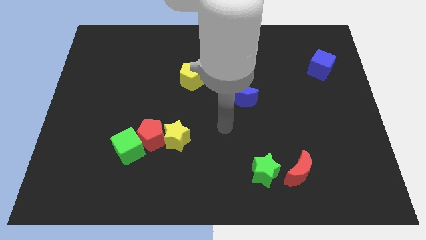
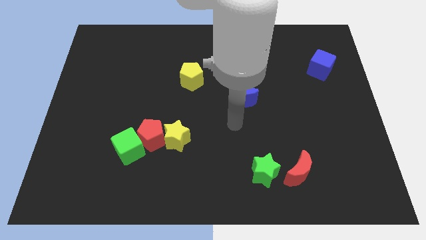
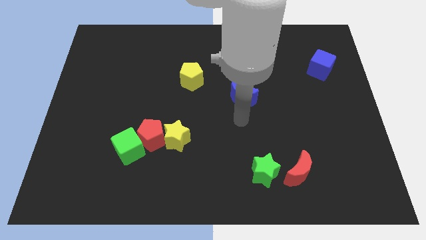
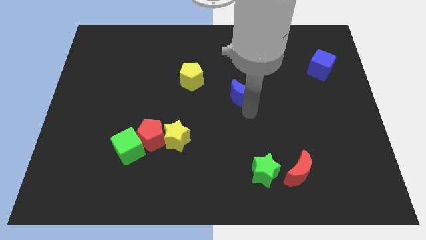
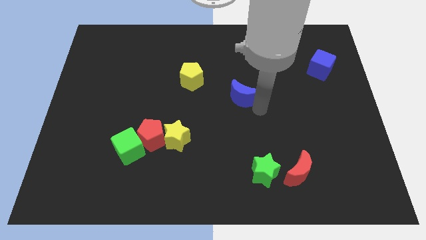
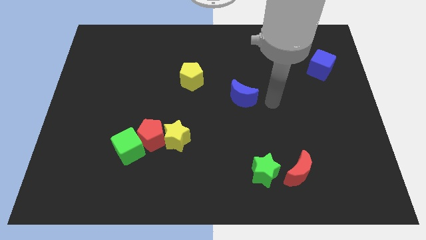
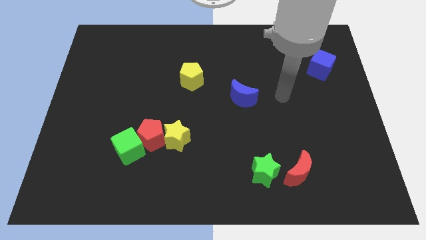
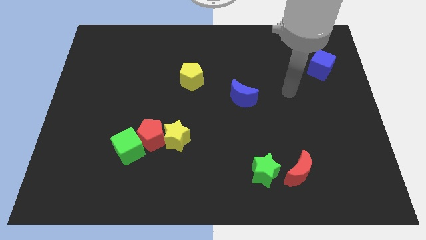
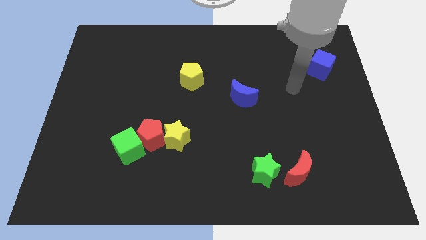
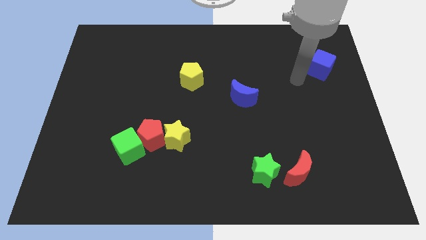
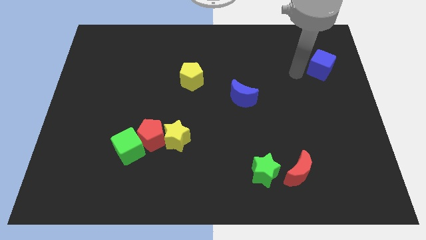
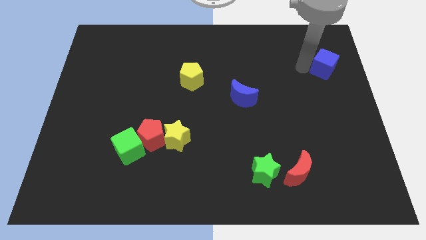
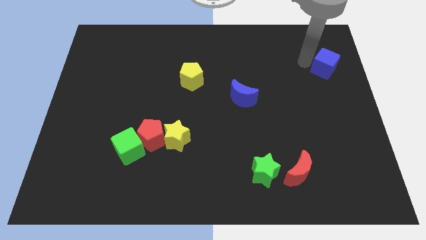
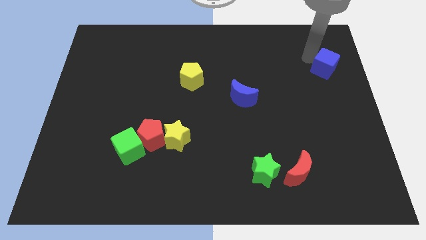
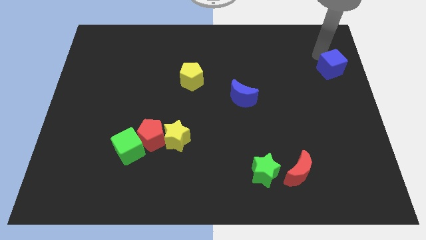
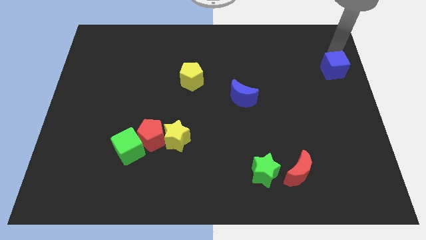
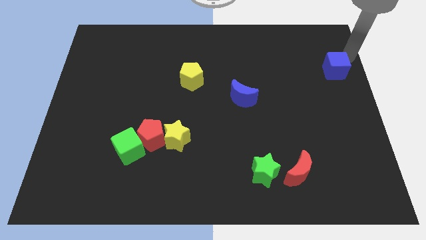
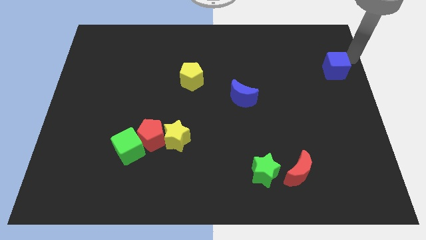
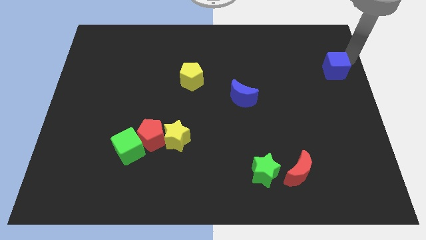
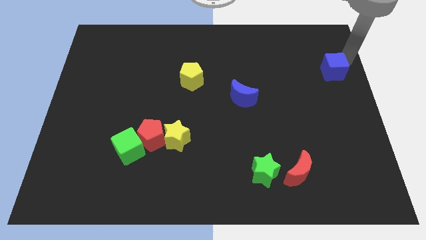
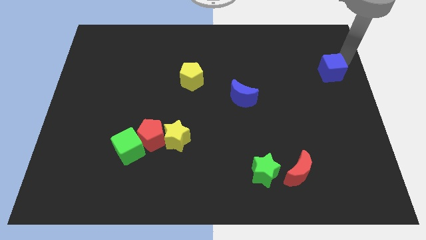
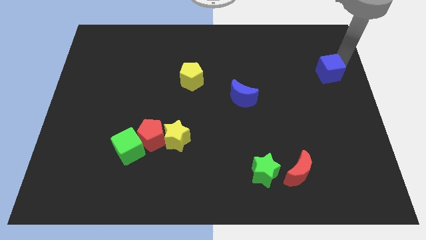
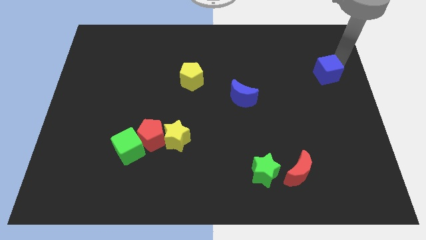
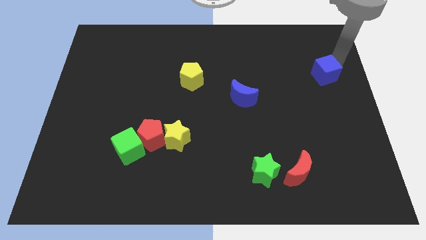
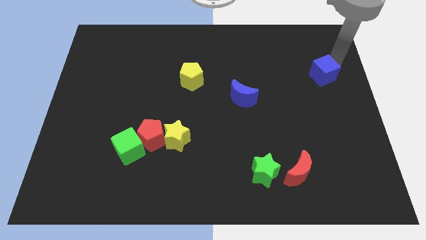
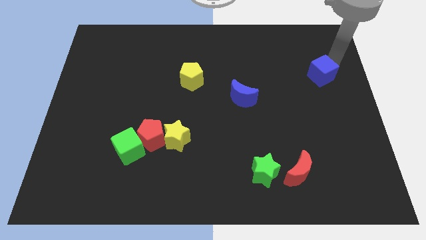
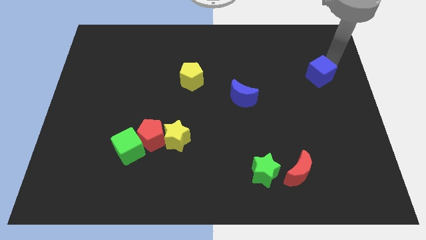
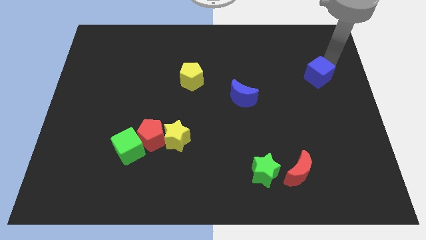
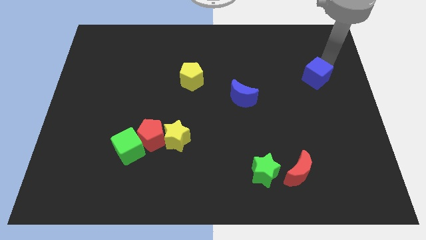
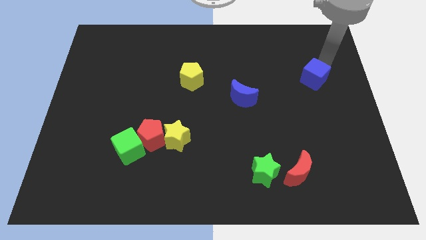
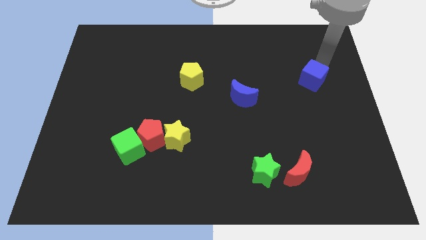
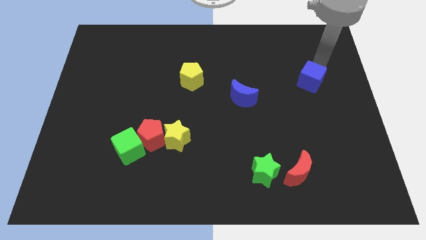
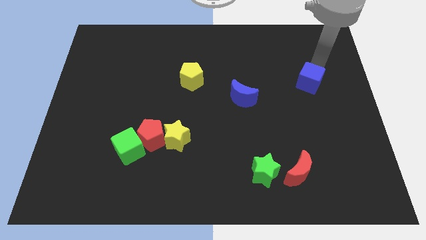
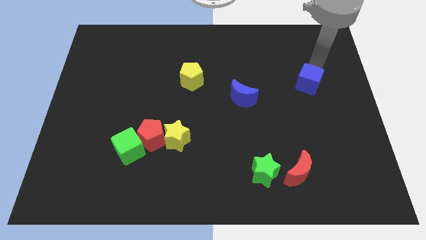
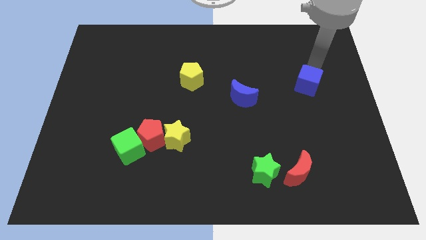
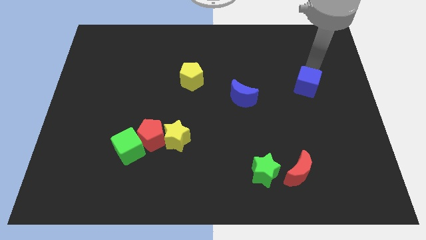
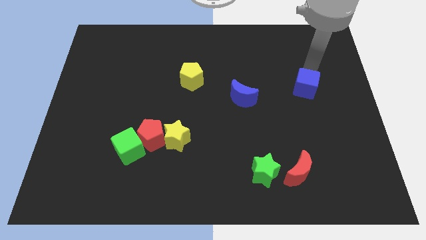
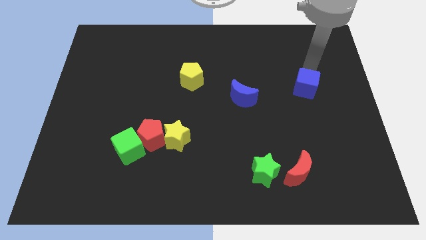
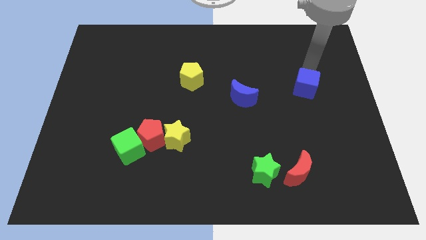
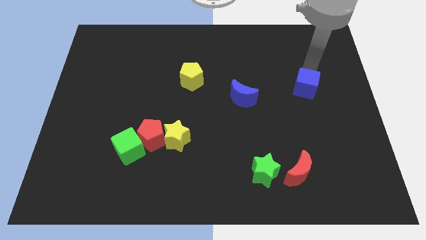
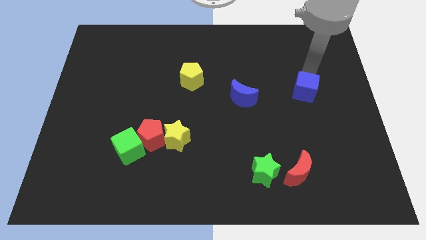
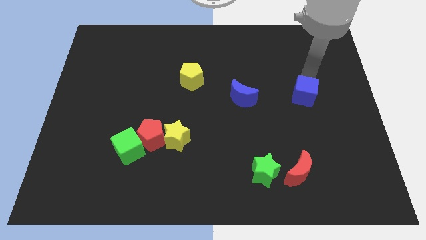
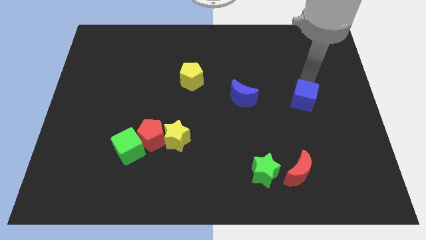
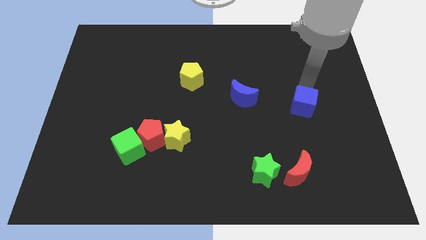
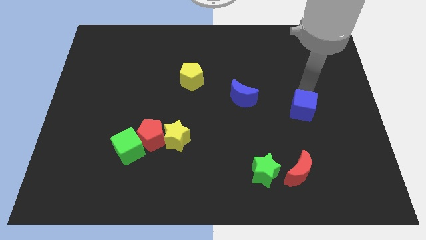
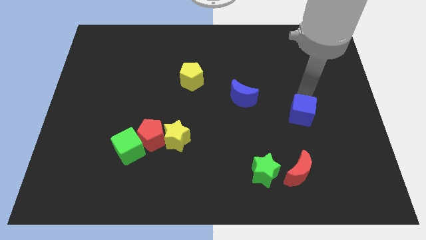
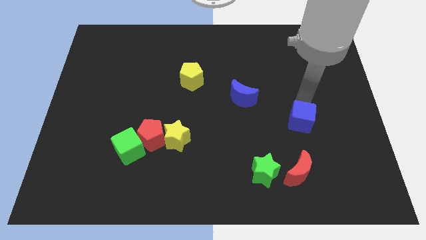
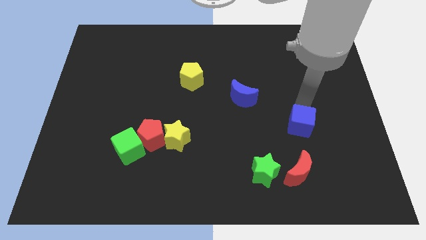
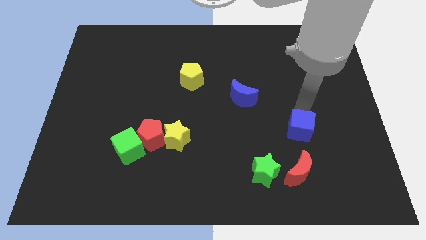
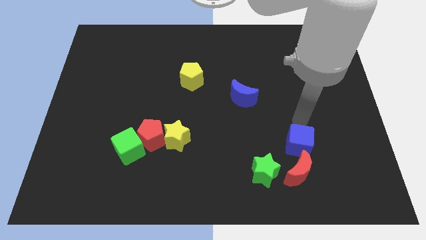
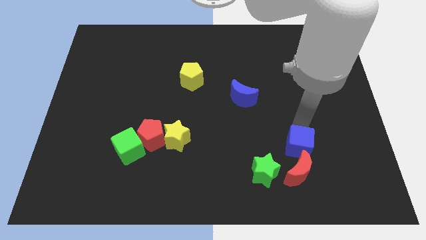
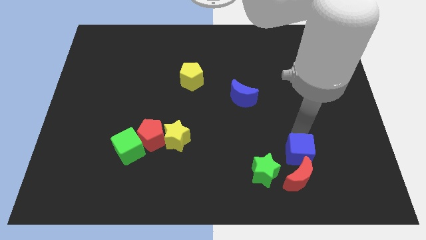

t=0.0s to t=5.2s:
push the blue cube towards the red moon

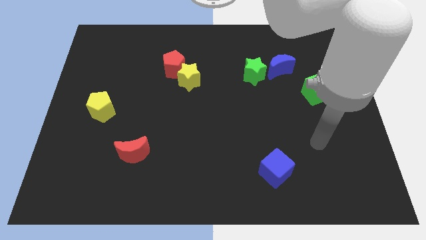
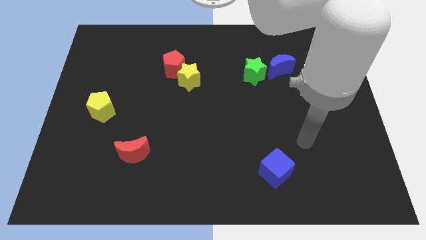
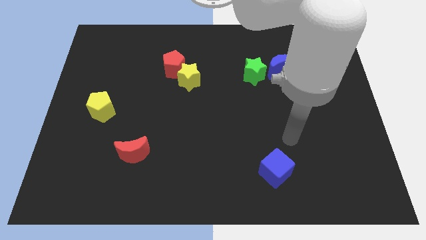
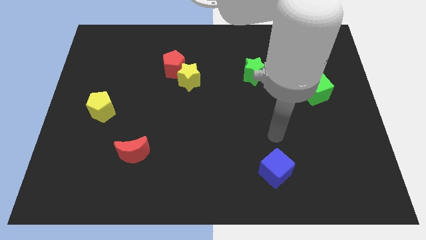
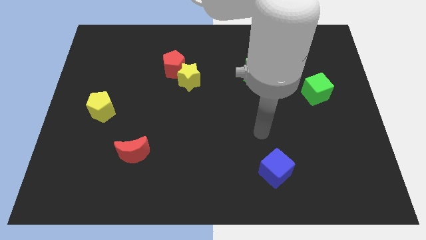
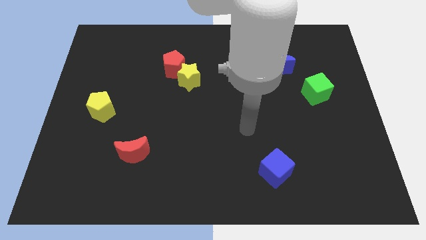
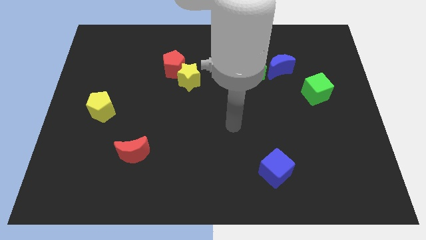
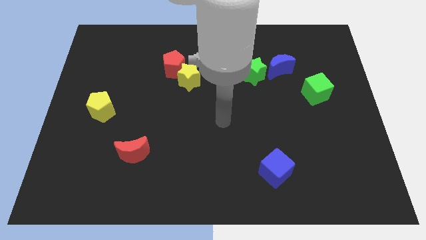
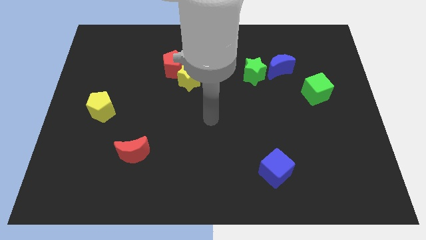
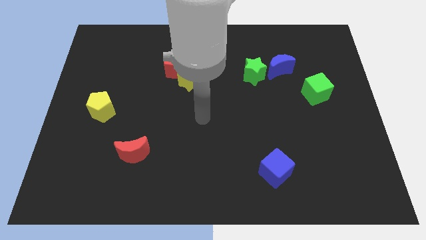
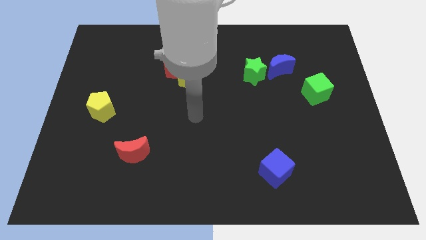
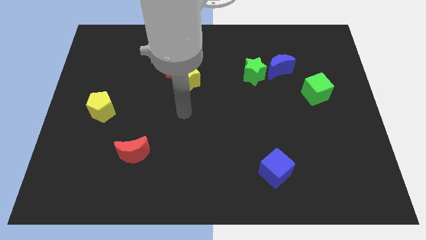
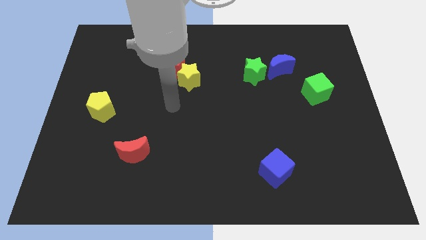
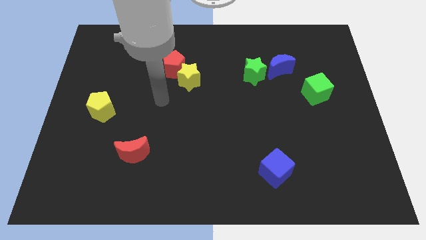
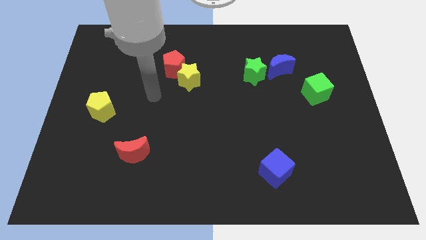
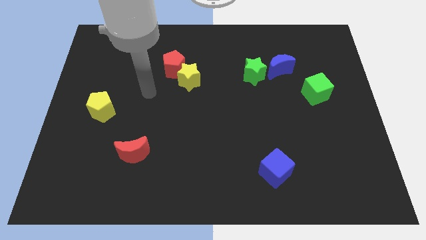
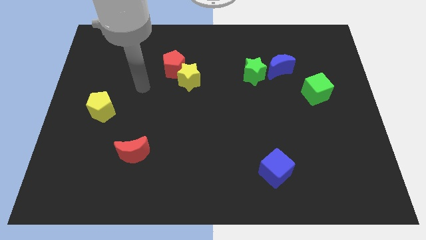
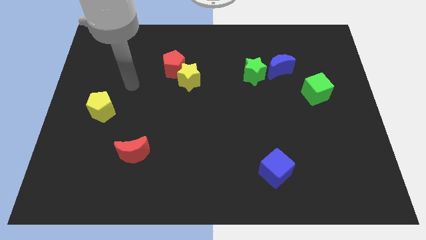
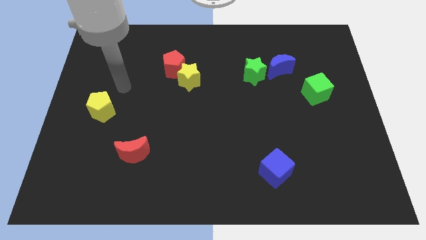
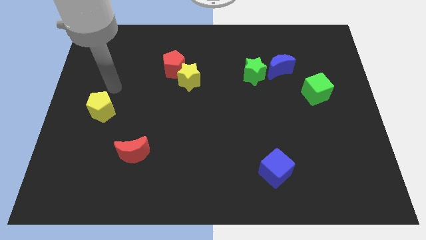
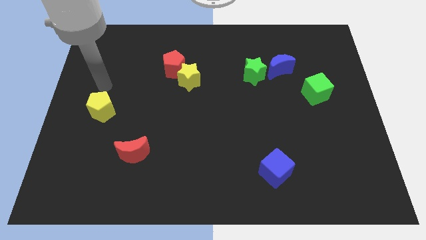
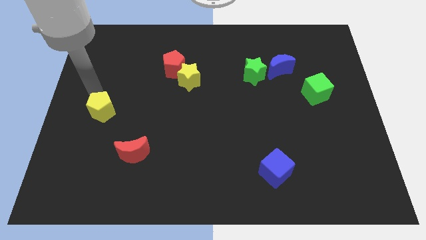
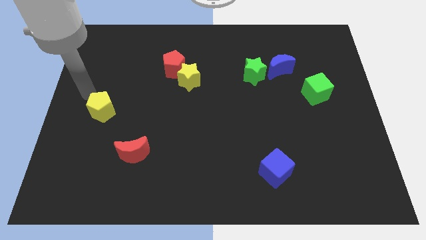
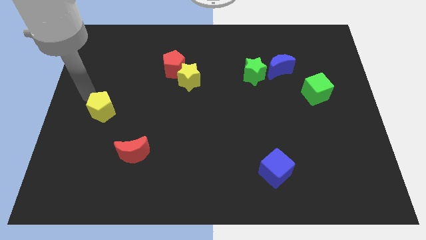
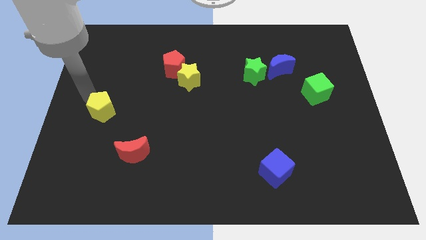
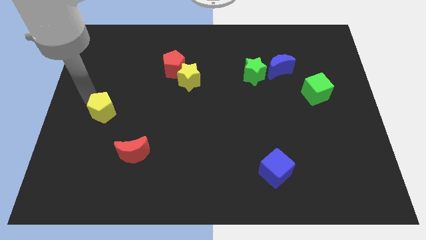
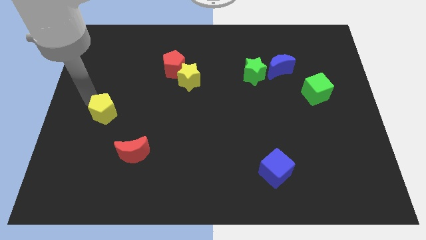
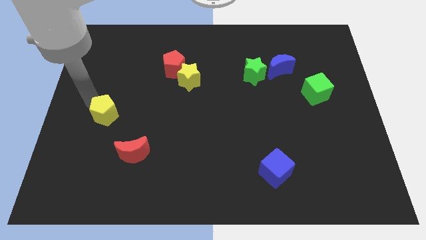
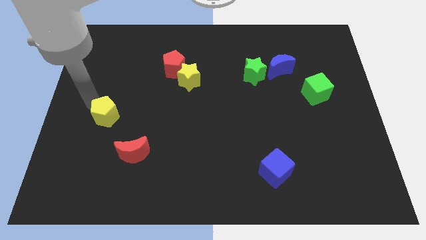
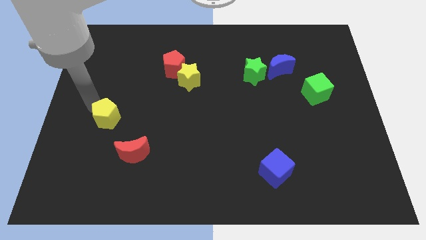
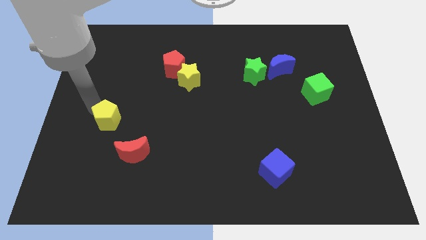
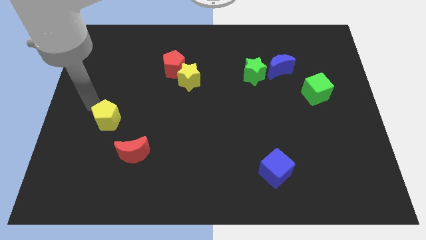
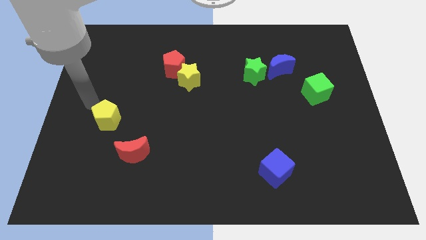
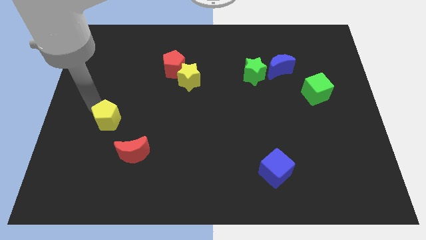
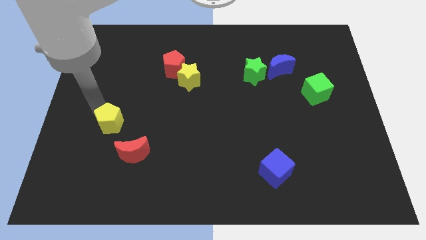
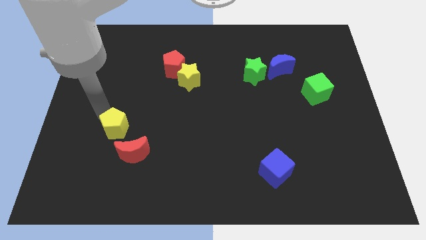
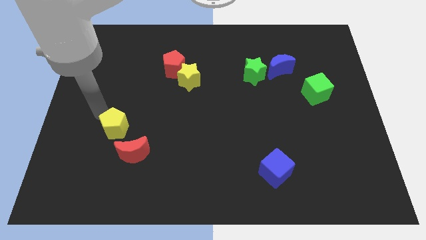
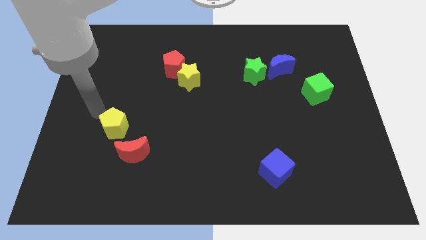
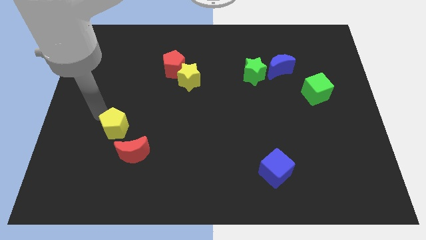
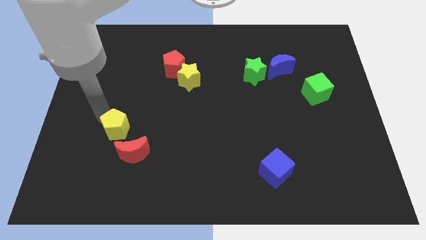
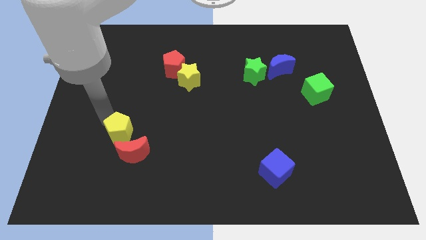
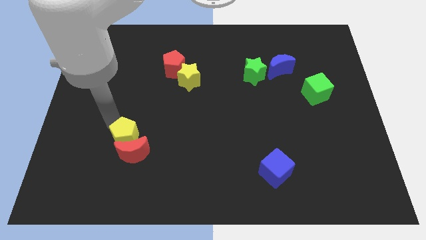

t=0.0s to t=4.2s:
move the yellow pentagon towards the red moon
